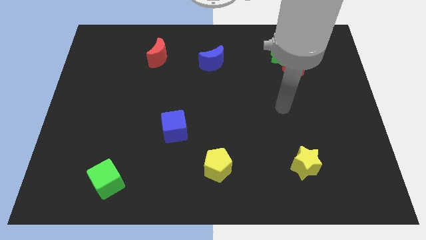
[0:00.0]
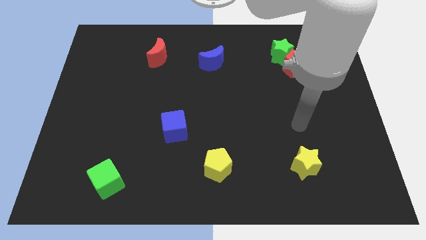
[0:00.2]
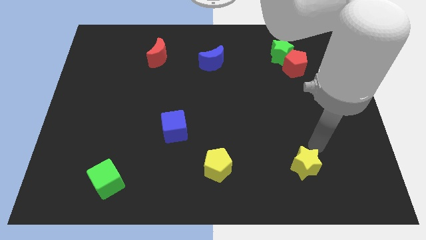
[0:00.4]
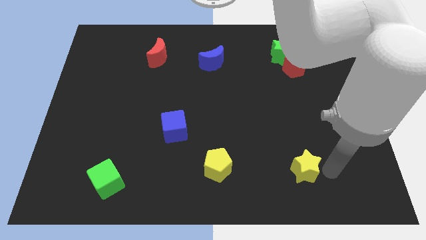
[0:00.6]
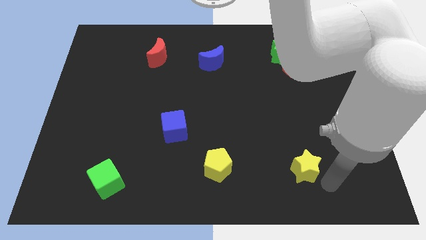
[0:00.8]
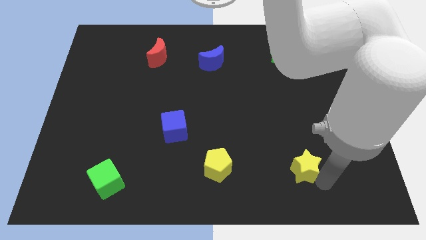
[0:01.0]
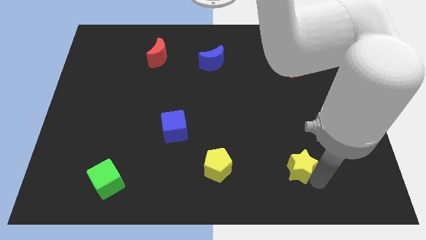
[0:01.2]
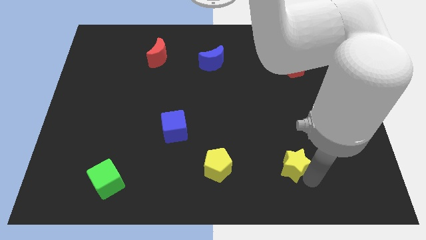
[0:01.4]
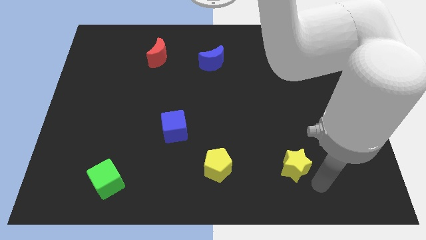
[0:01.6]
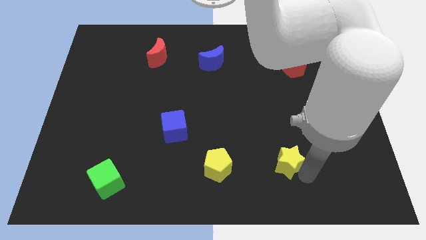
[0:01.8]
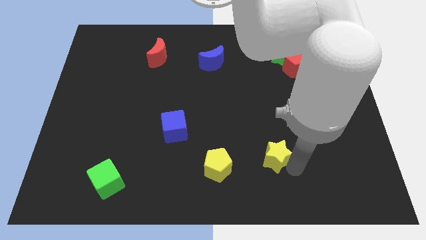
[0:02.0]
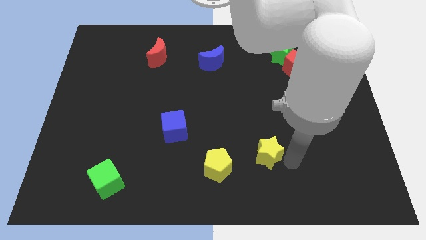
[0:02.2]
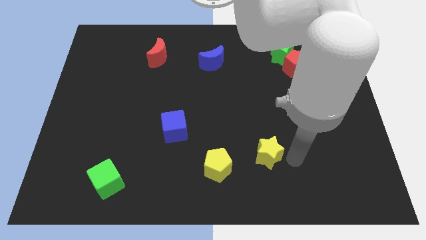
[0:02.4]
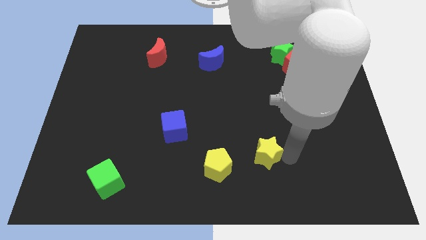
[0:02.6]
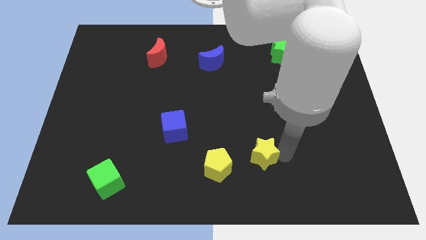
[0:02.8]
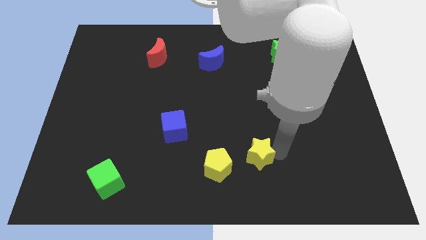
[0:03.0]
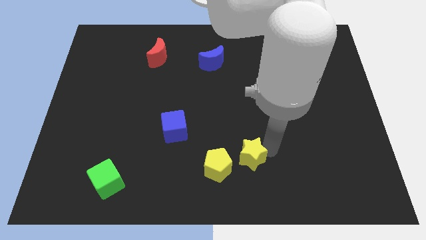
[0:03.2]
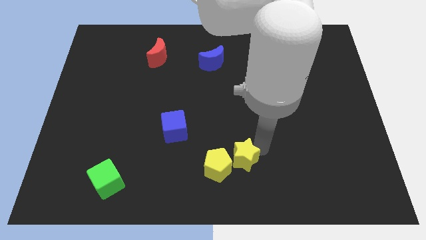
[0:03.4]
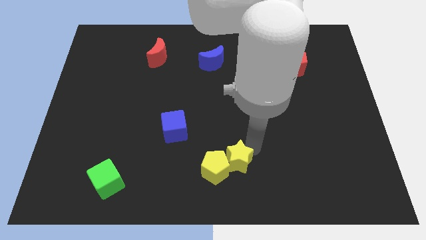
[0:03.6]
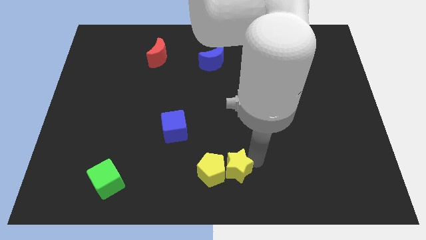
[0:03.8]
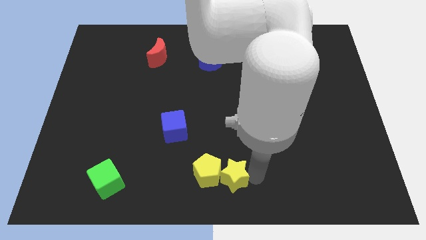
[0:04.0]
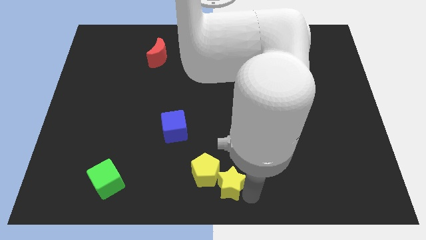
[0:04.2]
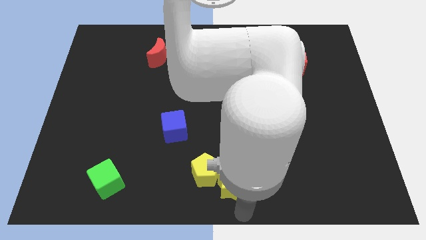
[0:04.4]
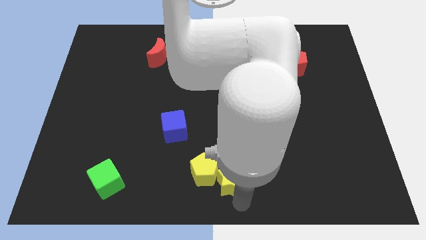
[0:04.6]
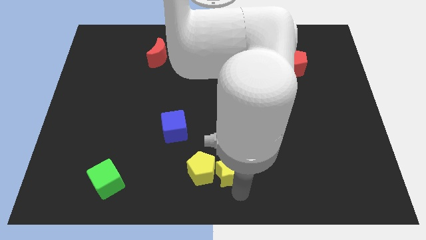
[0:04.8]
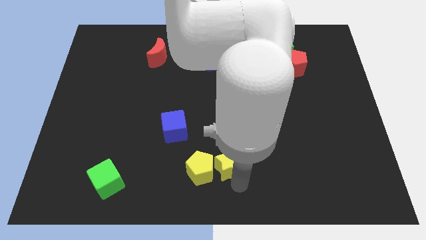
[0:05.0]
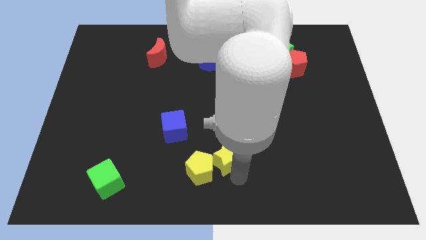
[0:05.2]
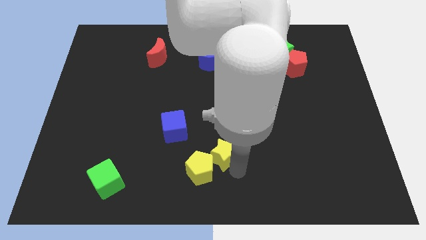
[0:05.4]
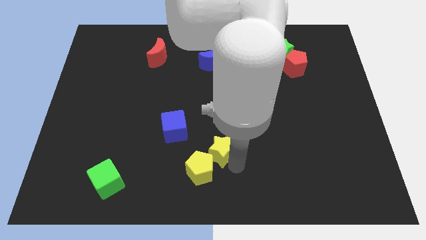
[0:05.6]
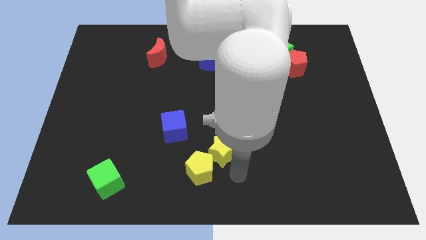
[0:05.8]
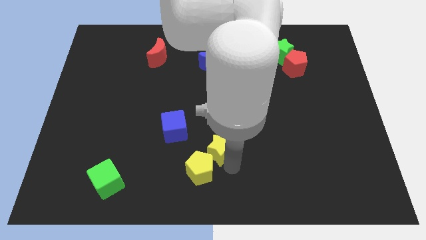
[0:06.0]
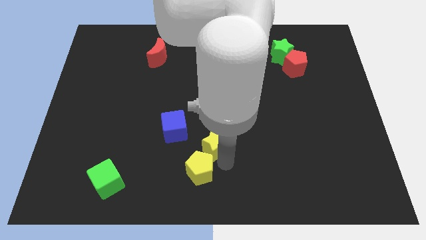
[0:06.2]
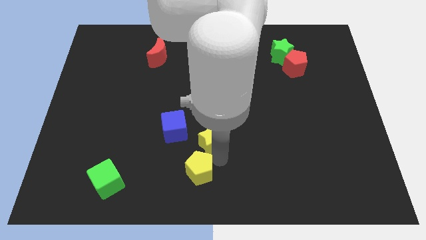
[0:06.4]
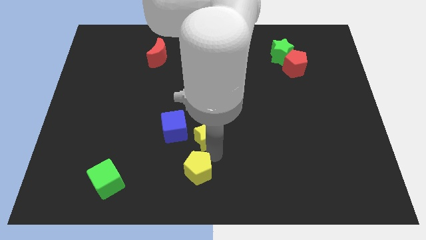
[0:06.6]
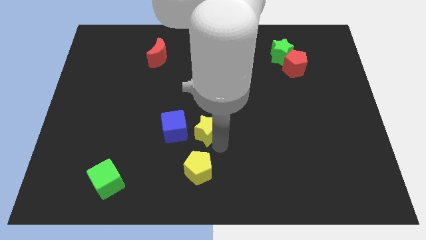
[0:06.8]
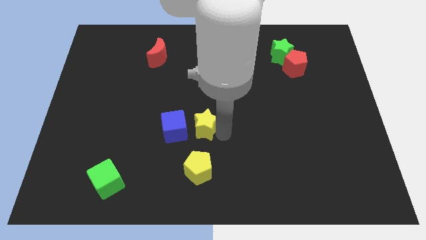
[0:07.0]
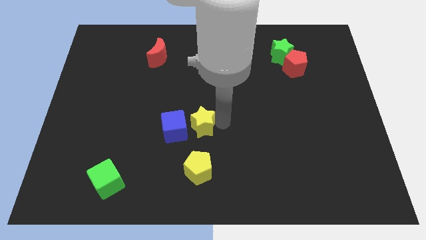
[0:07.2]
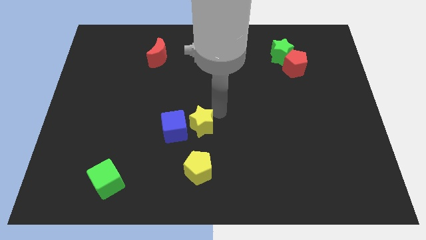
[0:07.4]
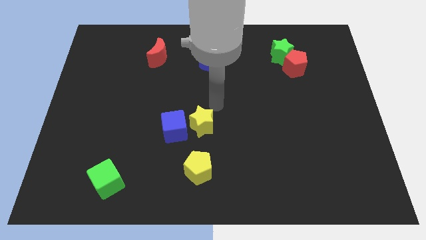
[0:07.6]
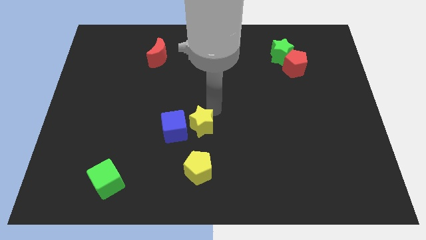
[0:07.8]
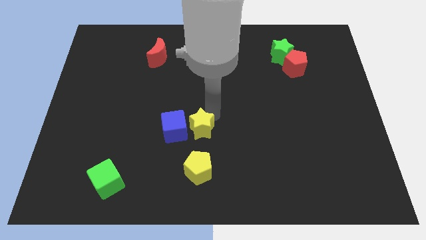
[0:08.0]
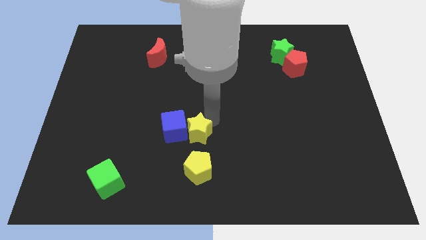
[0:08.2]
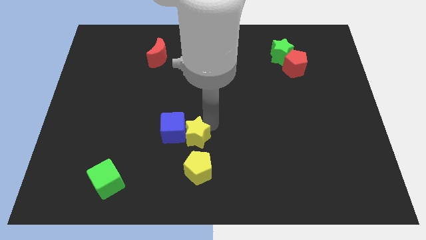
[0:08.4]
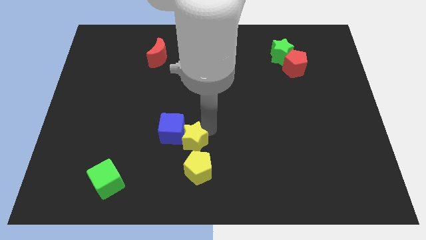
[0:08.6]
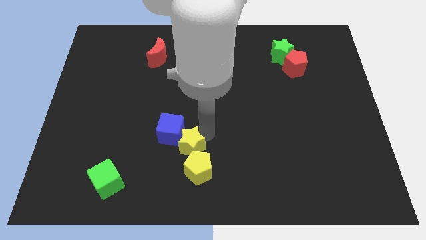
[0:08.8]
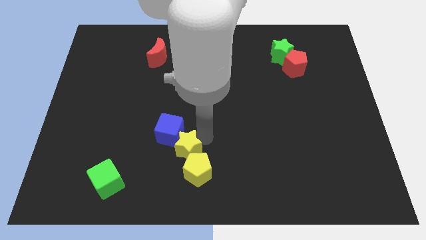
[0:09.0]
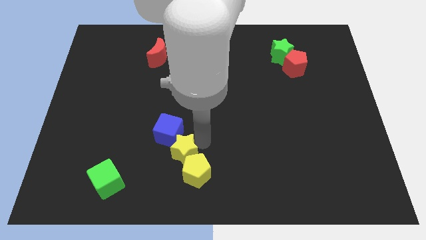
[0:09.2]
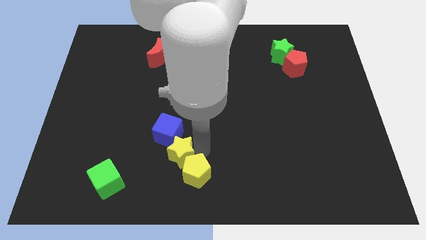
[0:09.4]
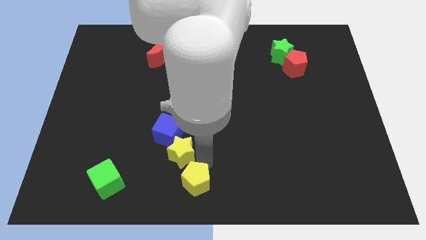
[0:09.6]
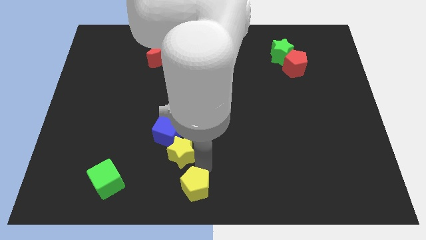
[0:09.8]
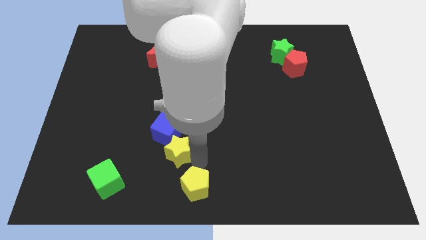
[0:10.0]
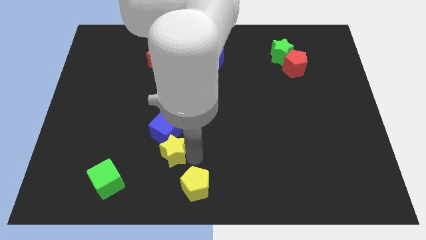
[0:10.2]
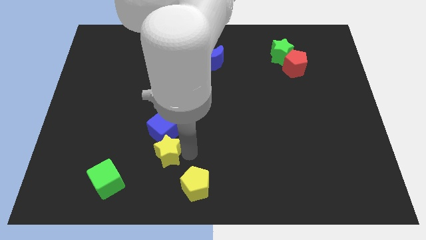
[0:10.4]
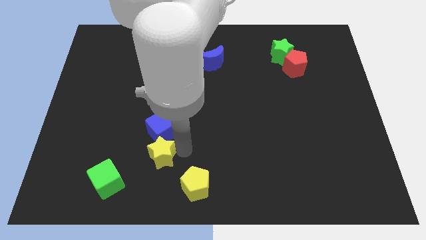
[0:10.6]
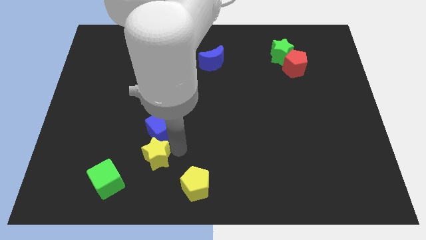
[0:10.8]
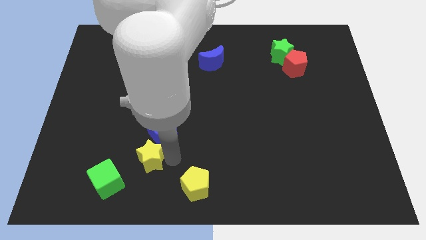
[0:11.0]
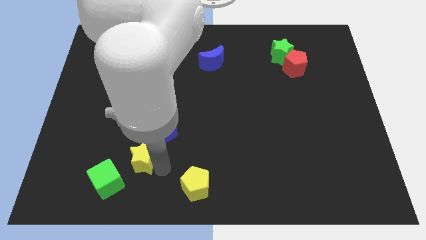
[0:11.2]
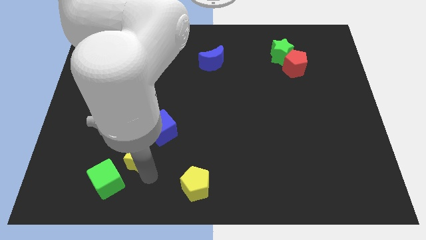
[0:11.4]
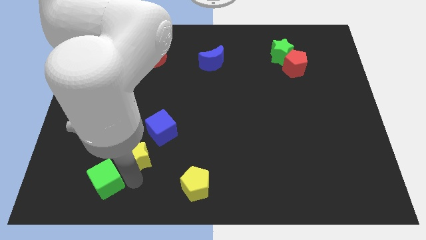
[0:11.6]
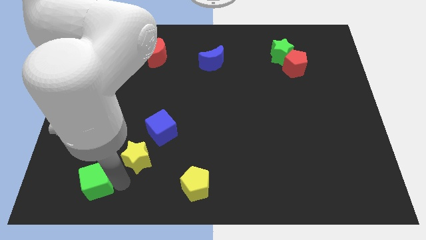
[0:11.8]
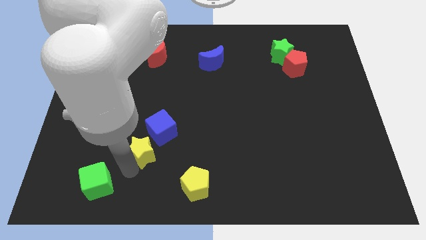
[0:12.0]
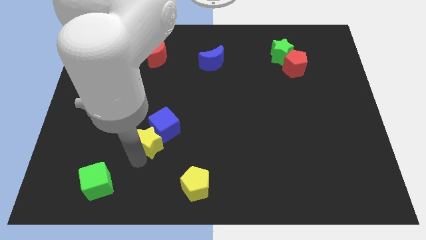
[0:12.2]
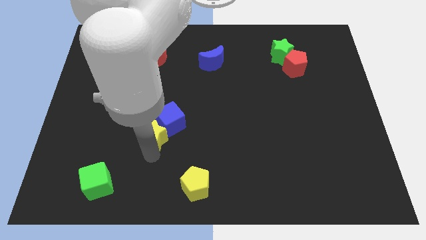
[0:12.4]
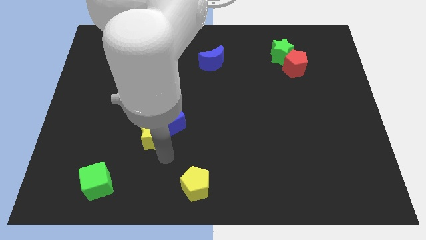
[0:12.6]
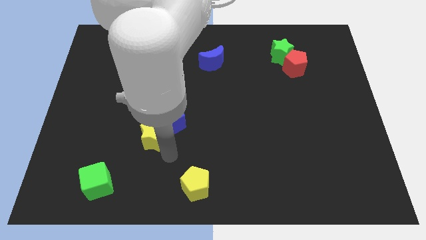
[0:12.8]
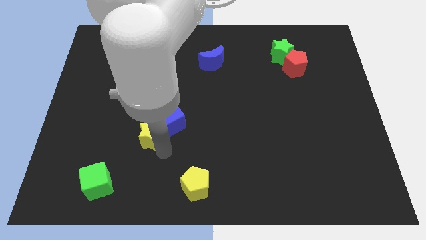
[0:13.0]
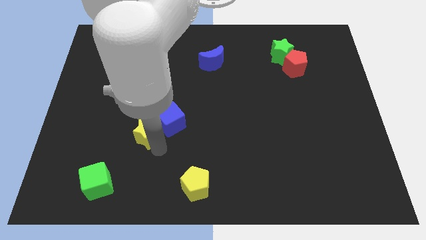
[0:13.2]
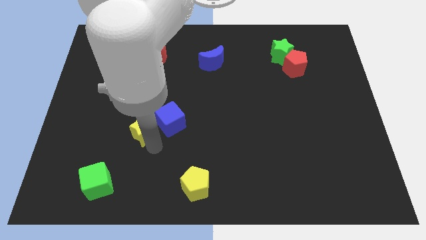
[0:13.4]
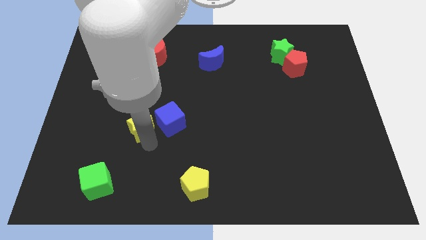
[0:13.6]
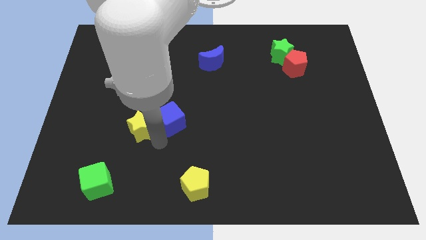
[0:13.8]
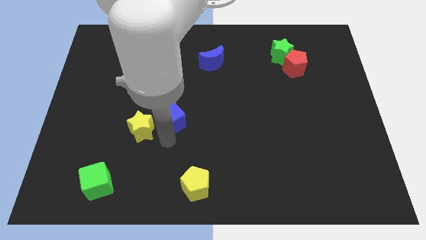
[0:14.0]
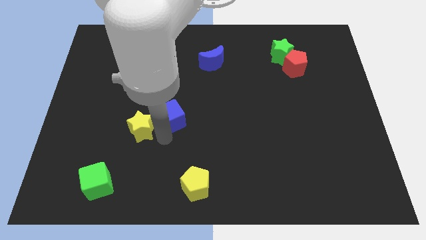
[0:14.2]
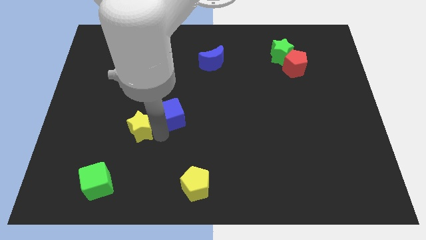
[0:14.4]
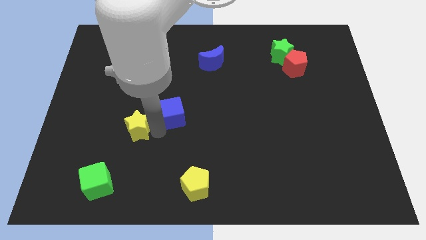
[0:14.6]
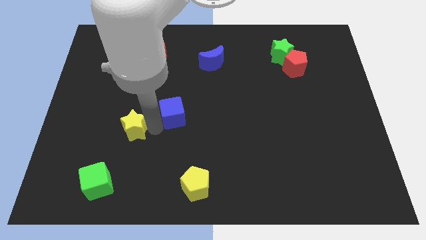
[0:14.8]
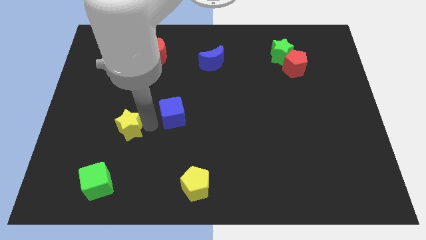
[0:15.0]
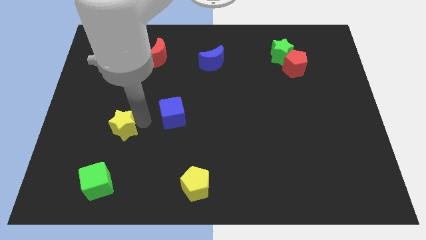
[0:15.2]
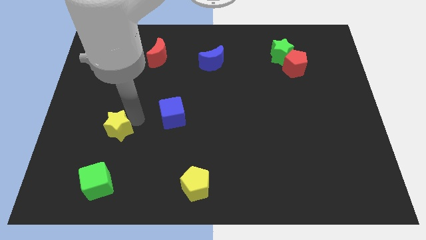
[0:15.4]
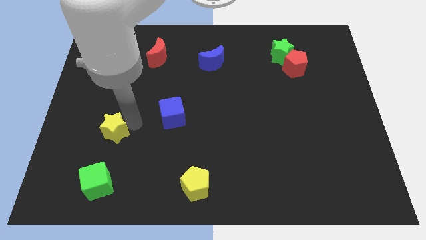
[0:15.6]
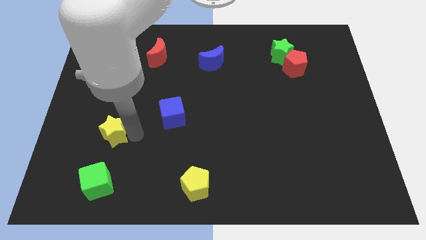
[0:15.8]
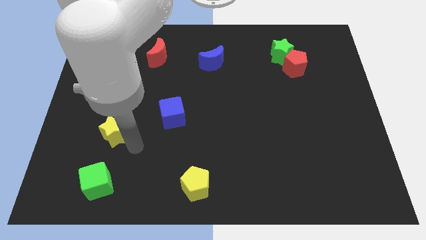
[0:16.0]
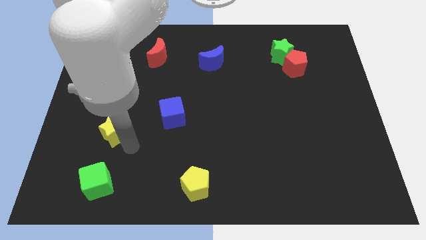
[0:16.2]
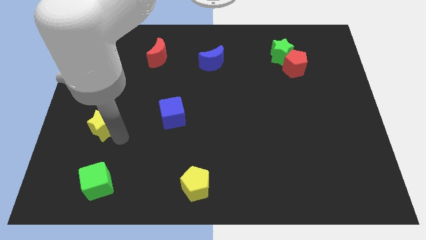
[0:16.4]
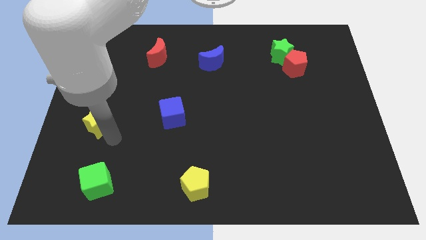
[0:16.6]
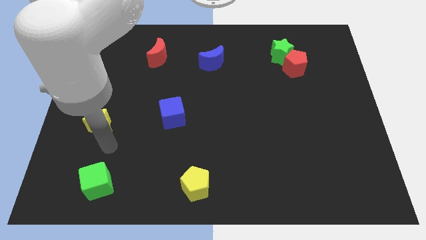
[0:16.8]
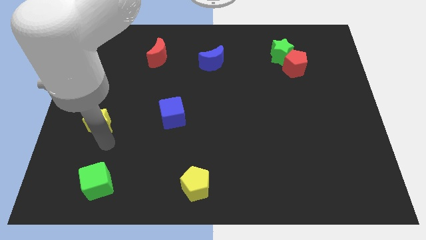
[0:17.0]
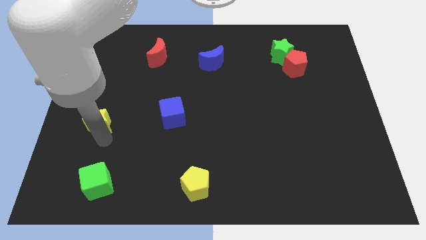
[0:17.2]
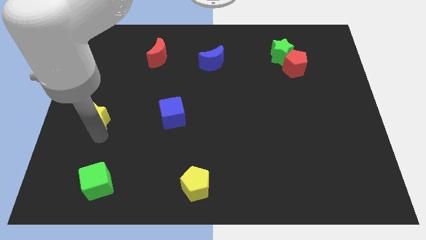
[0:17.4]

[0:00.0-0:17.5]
push the yellow star to the center left
